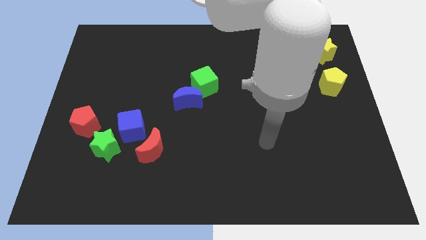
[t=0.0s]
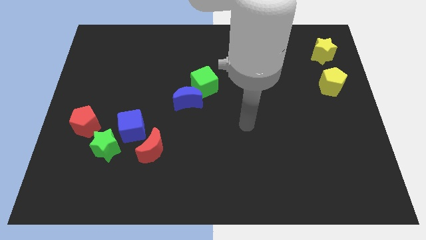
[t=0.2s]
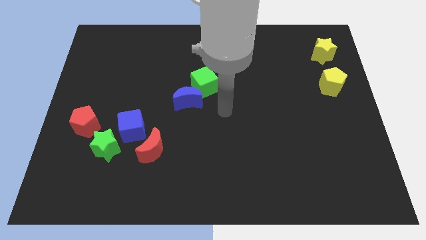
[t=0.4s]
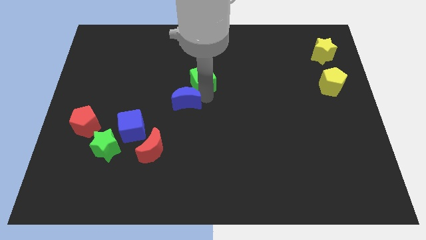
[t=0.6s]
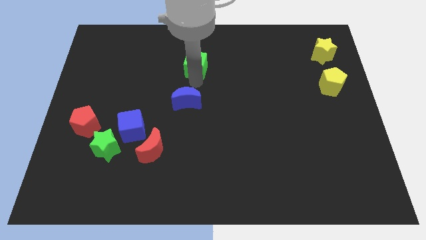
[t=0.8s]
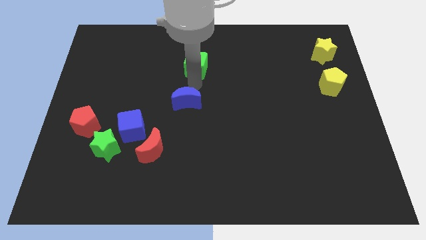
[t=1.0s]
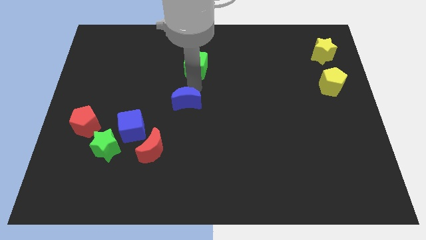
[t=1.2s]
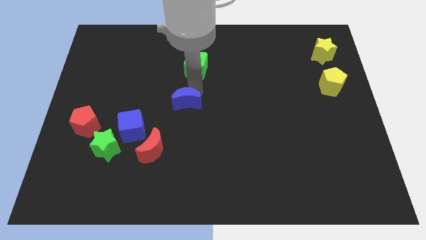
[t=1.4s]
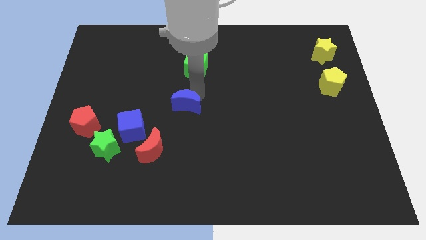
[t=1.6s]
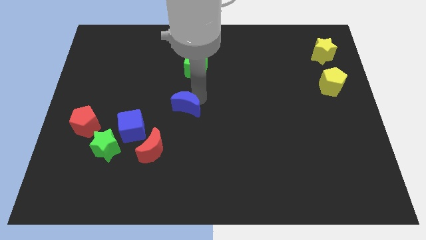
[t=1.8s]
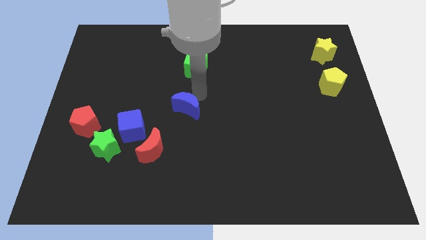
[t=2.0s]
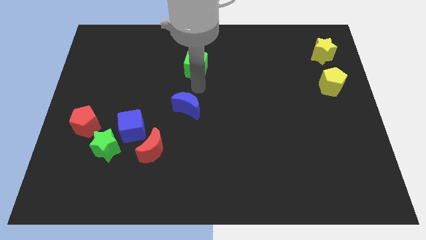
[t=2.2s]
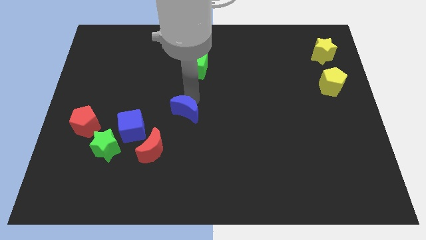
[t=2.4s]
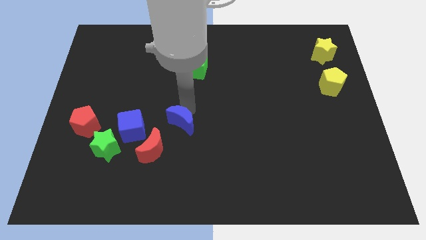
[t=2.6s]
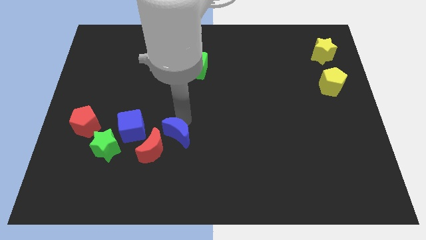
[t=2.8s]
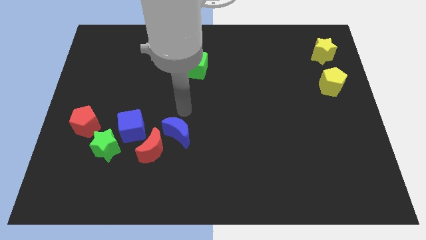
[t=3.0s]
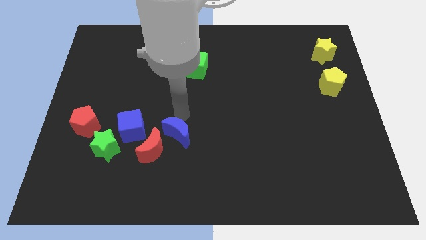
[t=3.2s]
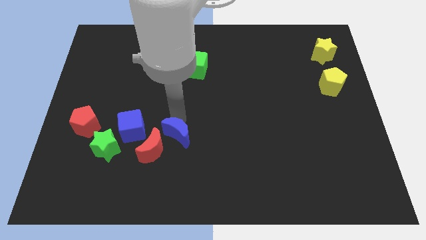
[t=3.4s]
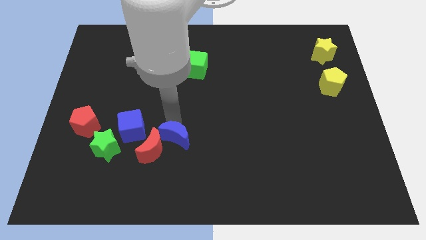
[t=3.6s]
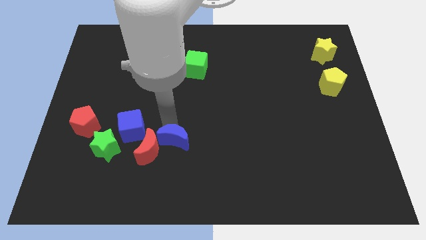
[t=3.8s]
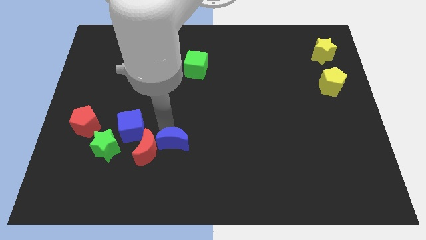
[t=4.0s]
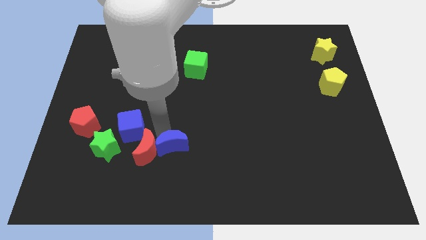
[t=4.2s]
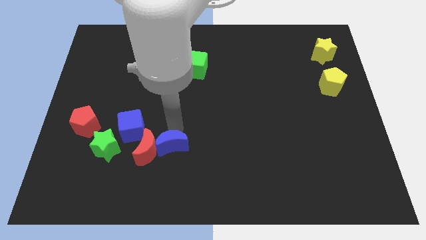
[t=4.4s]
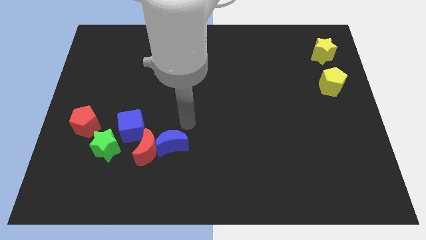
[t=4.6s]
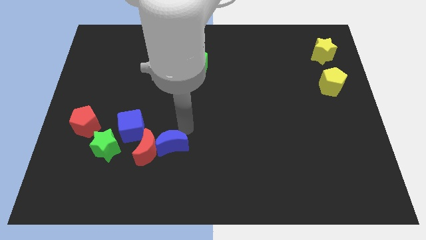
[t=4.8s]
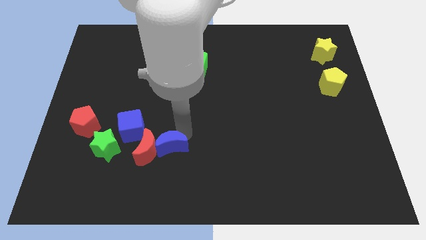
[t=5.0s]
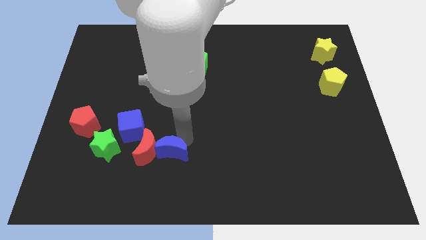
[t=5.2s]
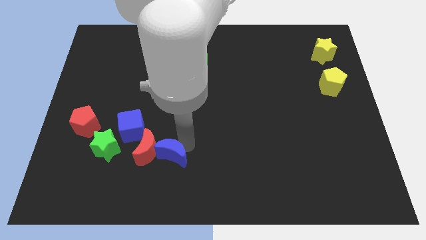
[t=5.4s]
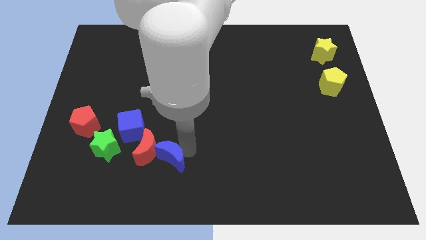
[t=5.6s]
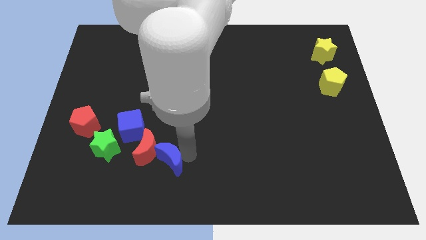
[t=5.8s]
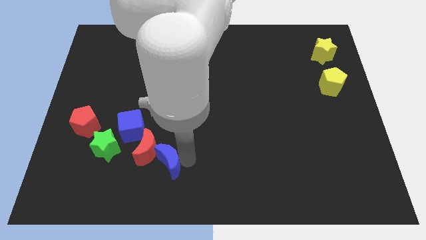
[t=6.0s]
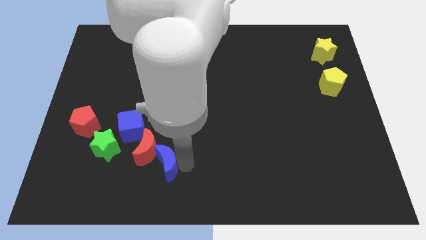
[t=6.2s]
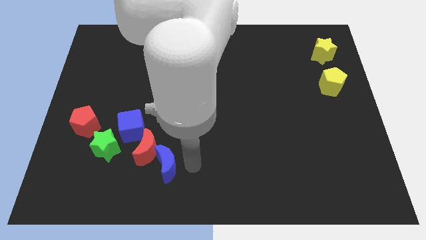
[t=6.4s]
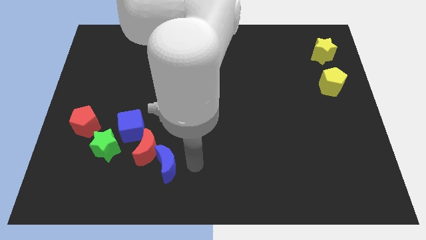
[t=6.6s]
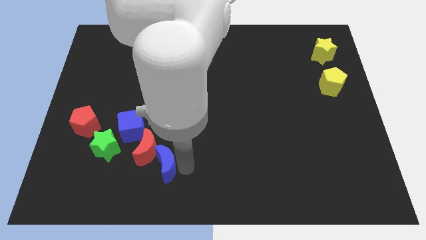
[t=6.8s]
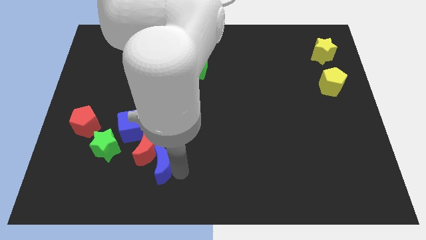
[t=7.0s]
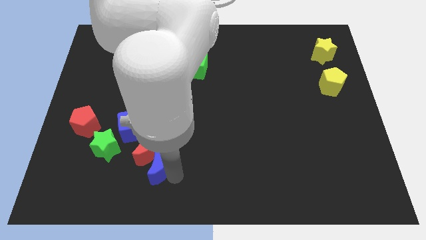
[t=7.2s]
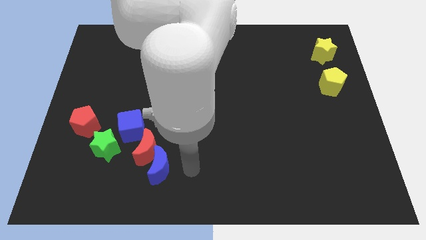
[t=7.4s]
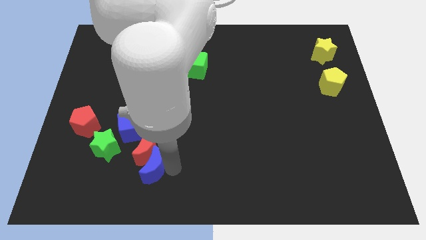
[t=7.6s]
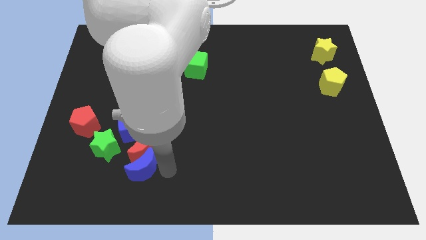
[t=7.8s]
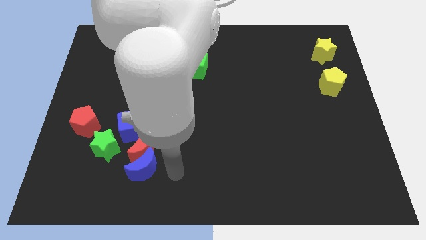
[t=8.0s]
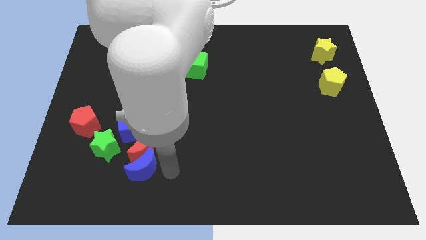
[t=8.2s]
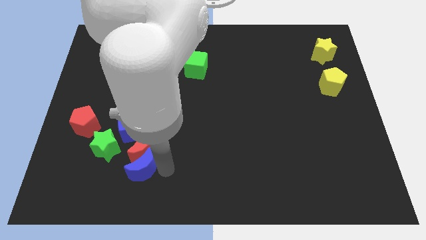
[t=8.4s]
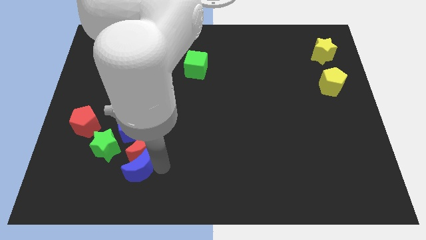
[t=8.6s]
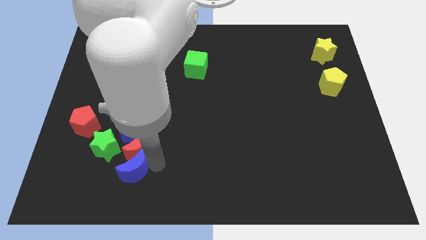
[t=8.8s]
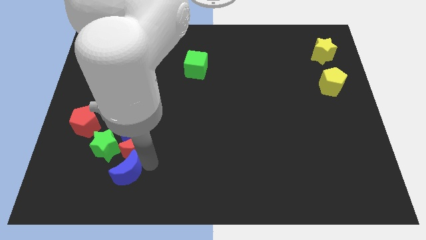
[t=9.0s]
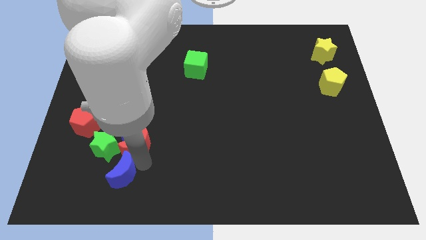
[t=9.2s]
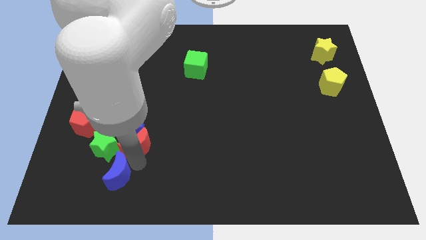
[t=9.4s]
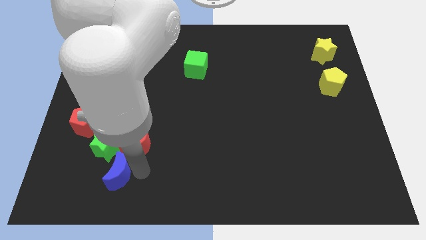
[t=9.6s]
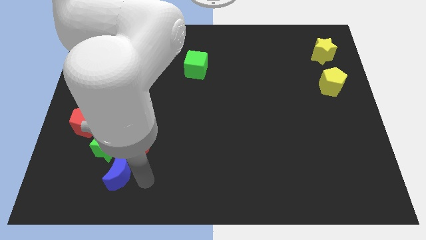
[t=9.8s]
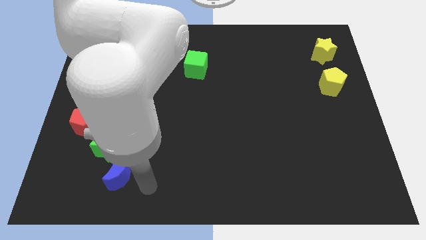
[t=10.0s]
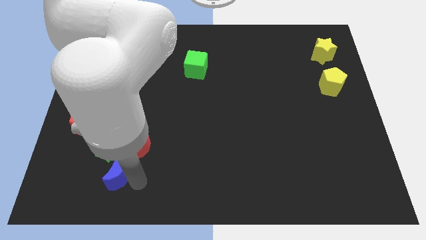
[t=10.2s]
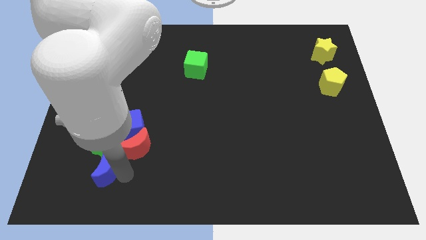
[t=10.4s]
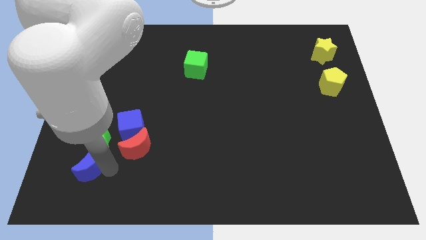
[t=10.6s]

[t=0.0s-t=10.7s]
push the blue moon to the bottom of the red pentagon

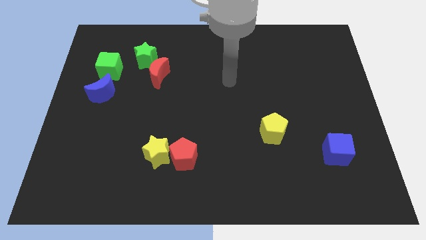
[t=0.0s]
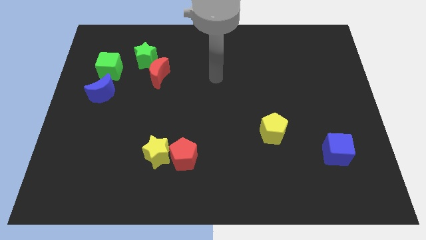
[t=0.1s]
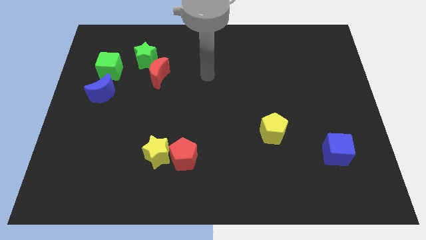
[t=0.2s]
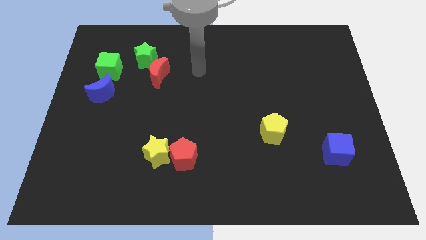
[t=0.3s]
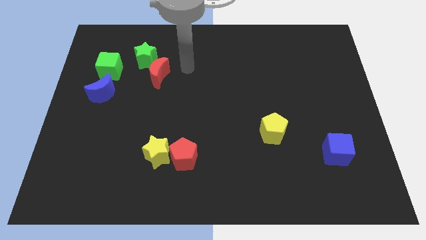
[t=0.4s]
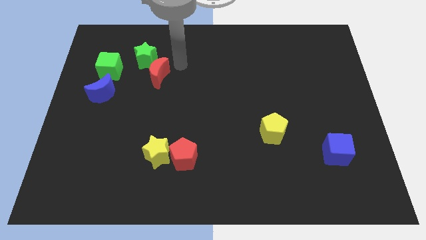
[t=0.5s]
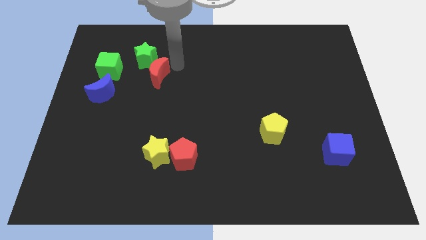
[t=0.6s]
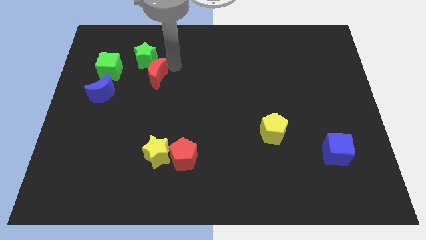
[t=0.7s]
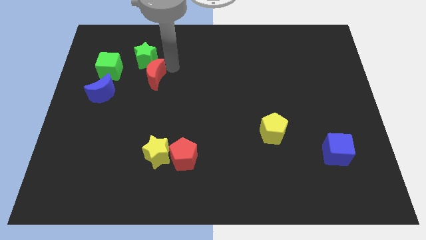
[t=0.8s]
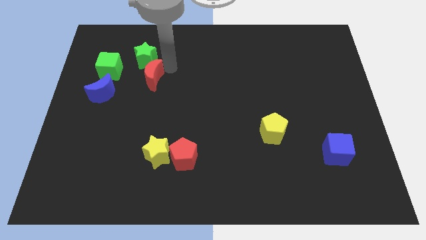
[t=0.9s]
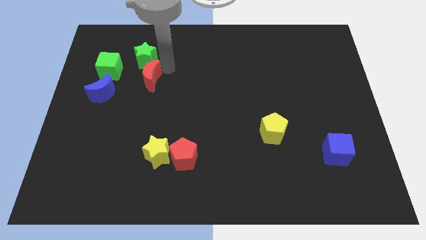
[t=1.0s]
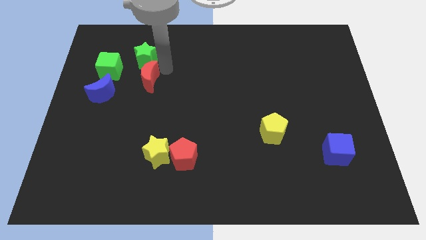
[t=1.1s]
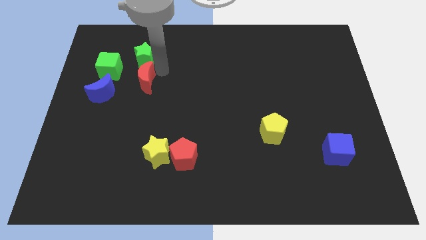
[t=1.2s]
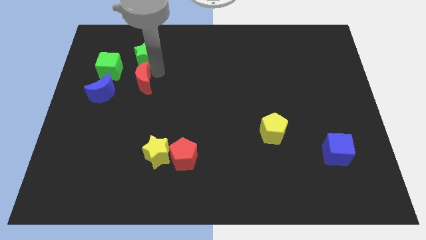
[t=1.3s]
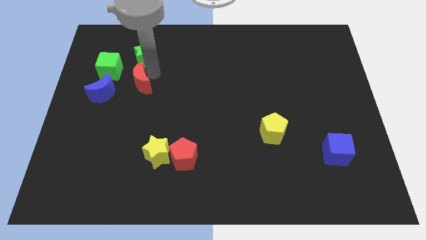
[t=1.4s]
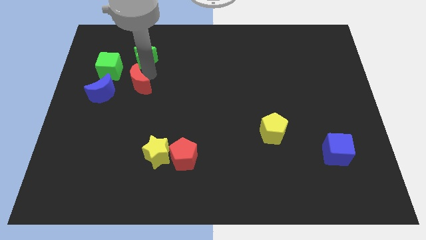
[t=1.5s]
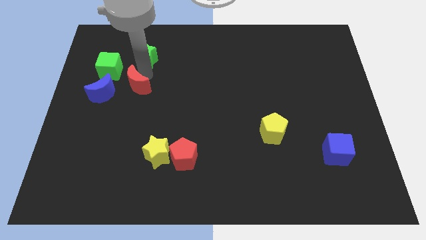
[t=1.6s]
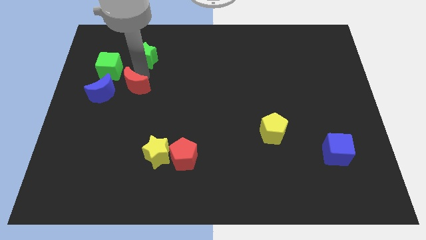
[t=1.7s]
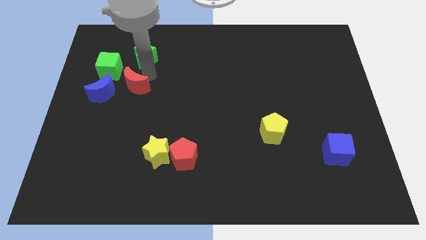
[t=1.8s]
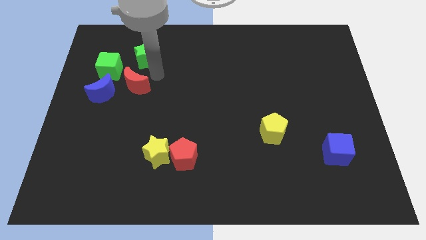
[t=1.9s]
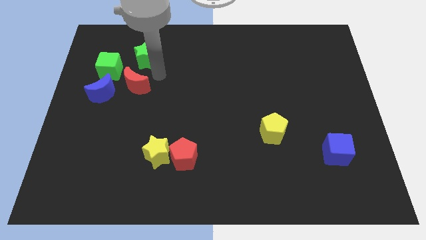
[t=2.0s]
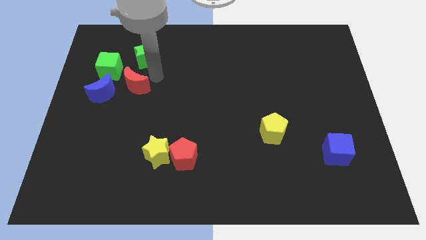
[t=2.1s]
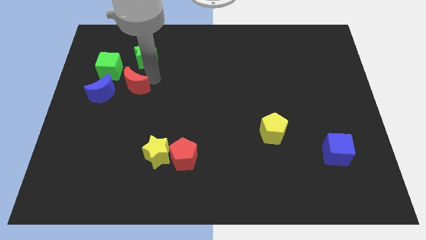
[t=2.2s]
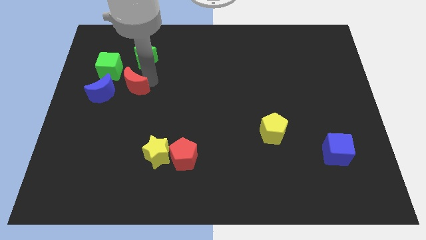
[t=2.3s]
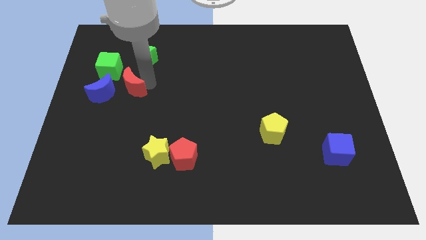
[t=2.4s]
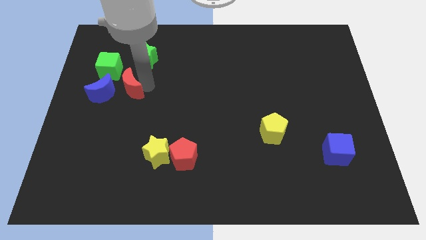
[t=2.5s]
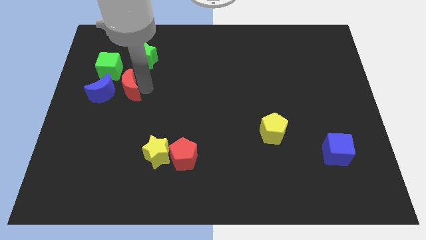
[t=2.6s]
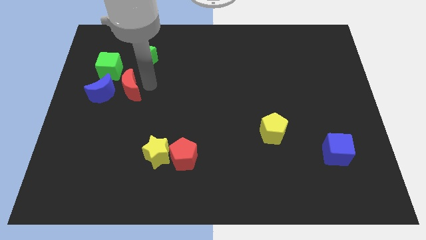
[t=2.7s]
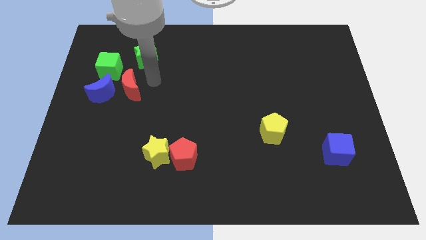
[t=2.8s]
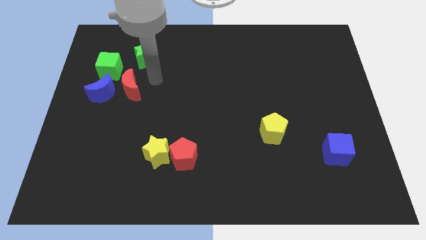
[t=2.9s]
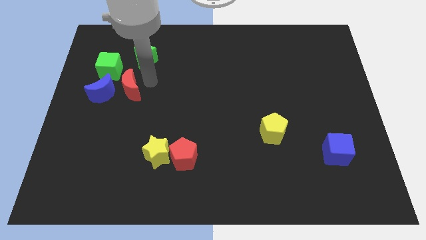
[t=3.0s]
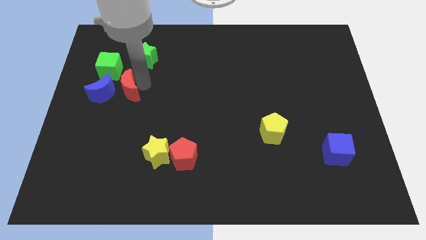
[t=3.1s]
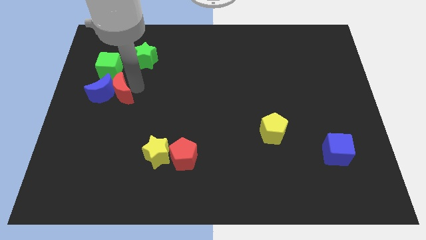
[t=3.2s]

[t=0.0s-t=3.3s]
move the red moon to the bottom of the green cube
